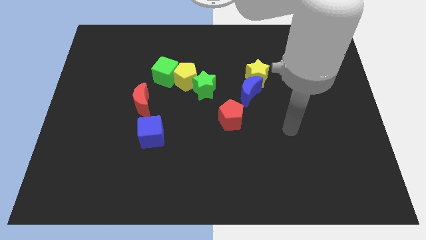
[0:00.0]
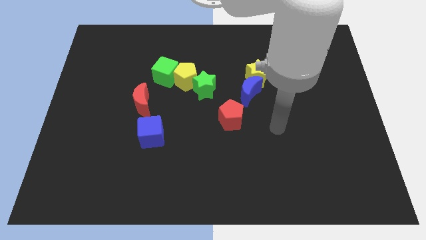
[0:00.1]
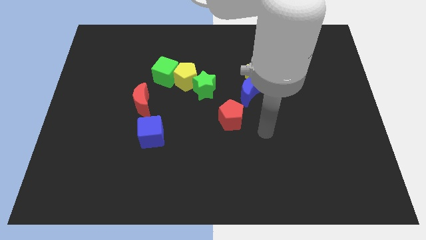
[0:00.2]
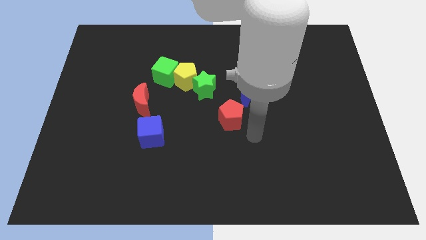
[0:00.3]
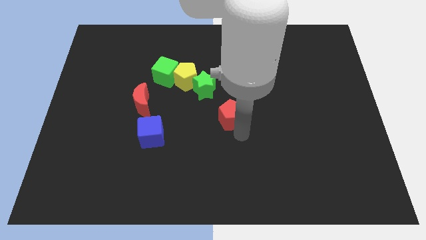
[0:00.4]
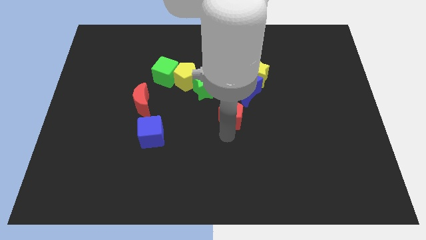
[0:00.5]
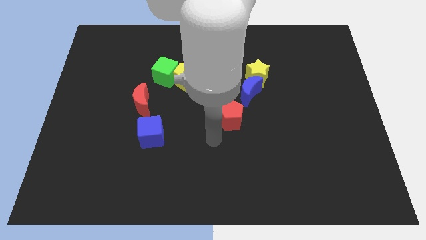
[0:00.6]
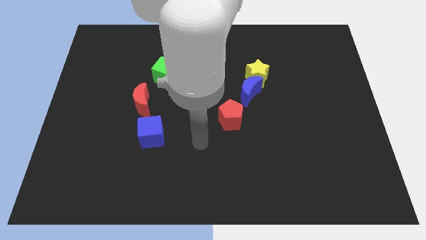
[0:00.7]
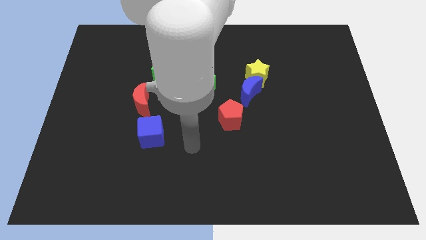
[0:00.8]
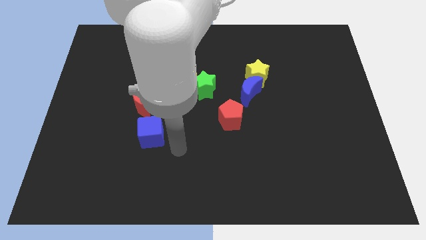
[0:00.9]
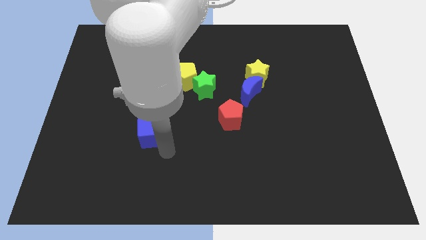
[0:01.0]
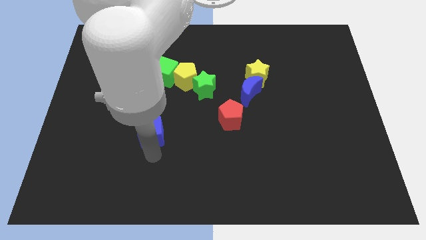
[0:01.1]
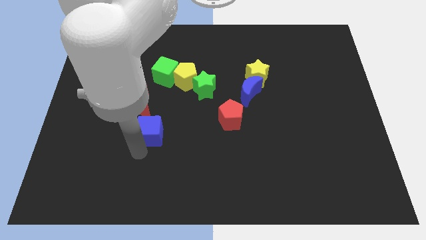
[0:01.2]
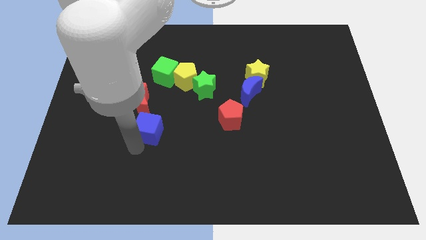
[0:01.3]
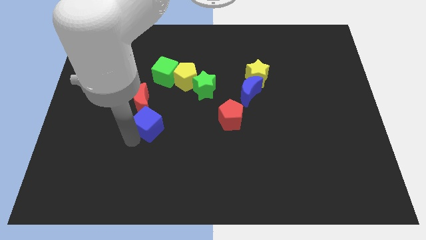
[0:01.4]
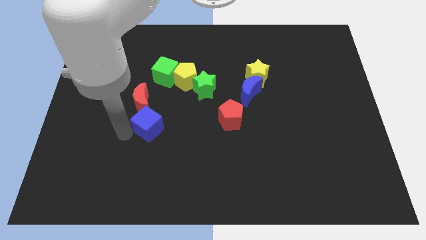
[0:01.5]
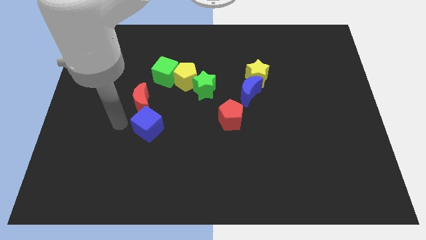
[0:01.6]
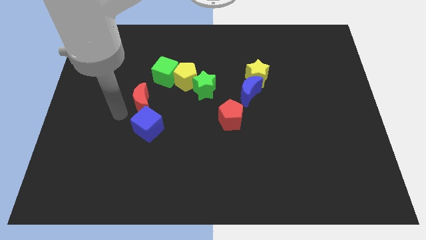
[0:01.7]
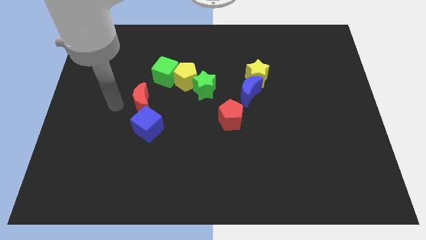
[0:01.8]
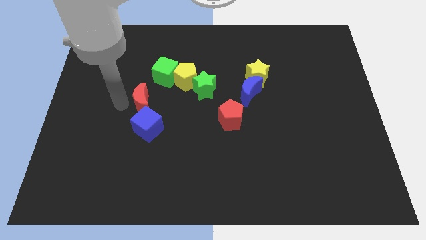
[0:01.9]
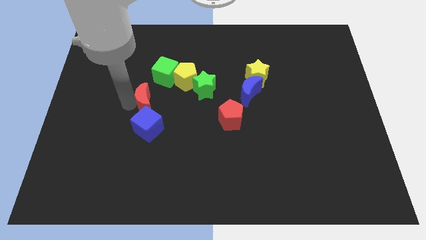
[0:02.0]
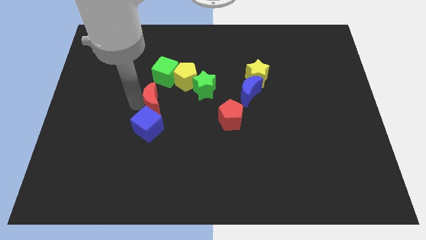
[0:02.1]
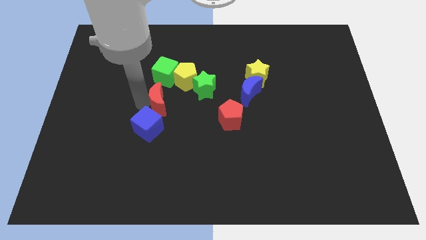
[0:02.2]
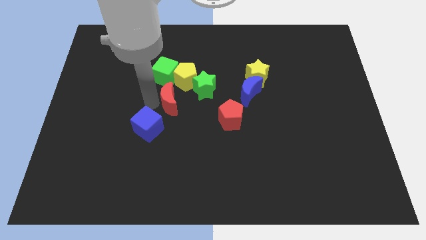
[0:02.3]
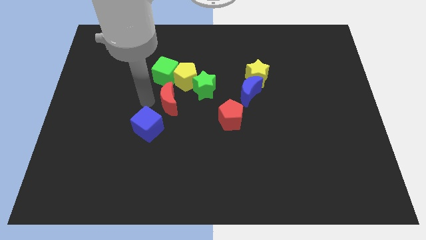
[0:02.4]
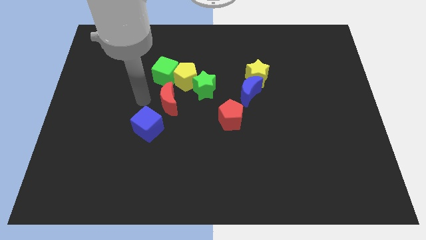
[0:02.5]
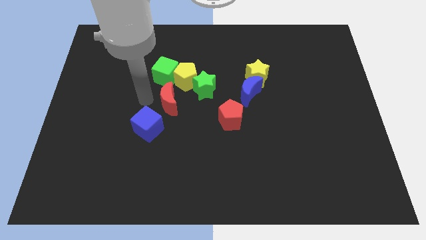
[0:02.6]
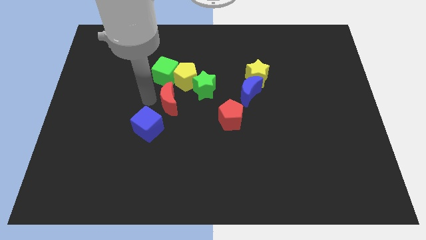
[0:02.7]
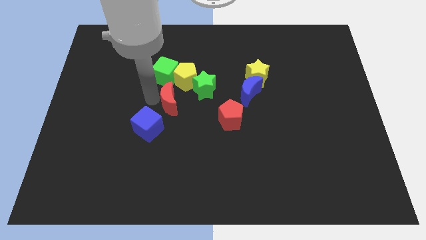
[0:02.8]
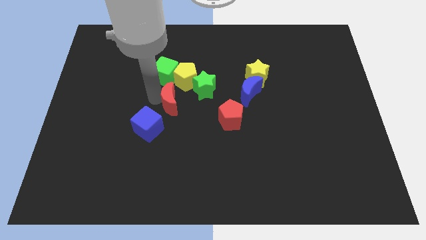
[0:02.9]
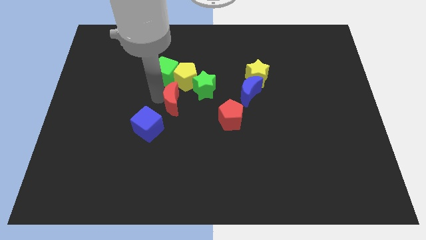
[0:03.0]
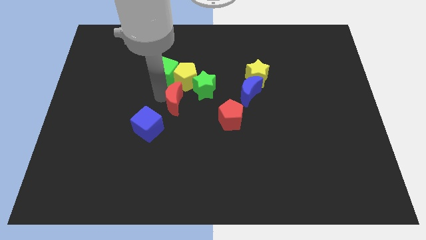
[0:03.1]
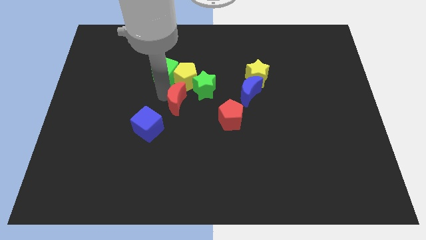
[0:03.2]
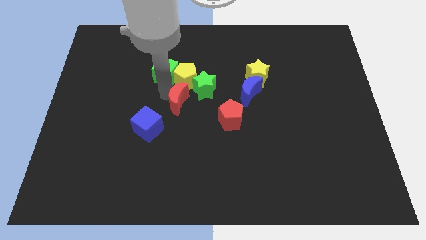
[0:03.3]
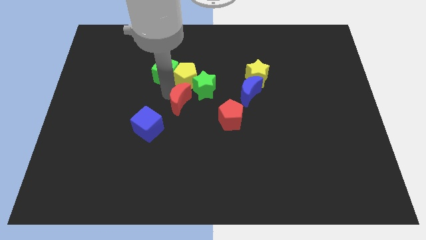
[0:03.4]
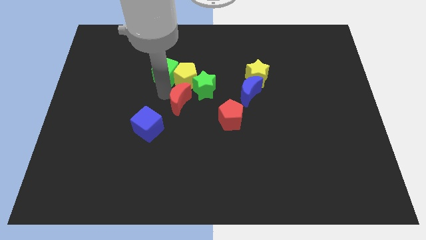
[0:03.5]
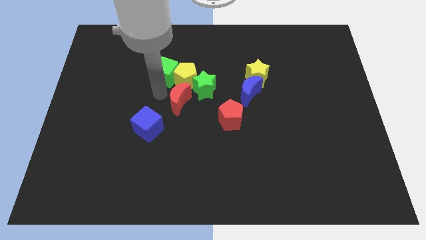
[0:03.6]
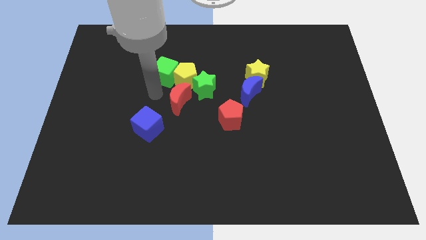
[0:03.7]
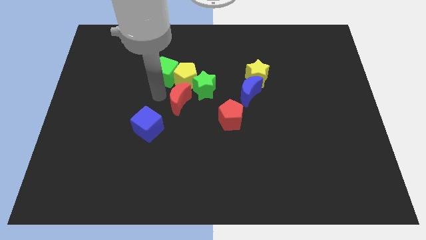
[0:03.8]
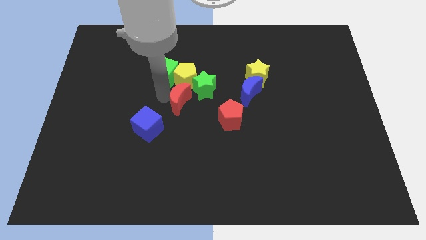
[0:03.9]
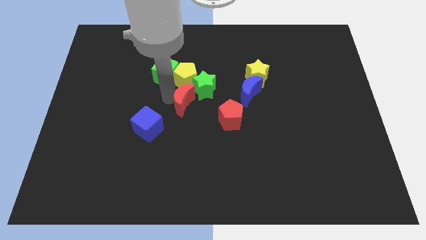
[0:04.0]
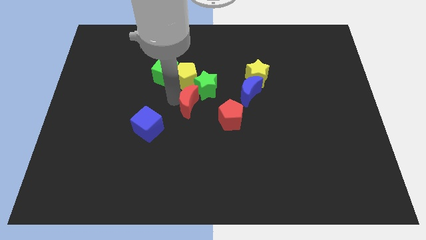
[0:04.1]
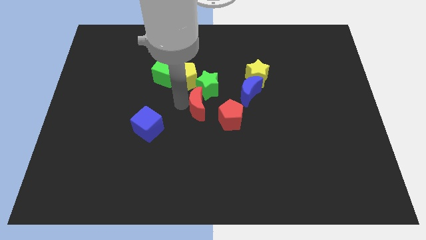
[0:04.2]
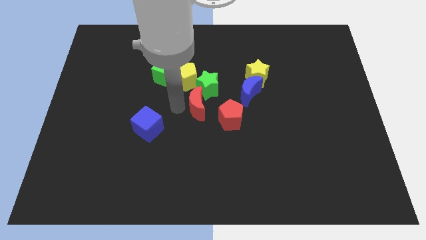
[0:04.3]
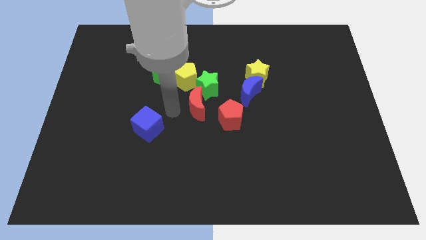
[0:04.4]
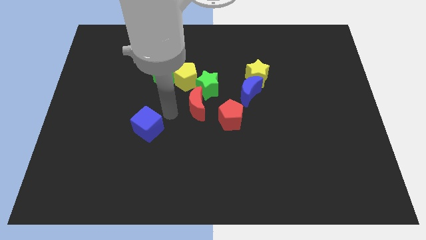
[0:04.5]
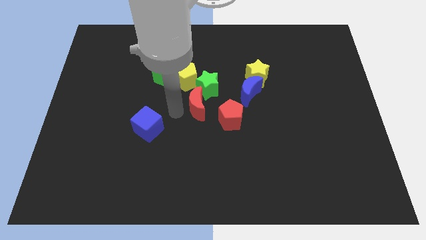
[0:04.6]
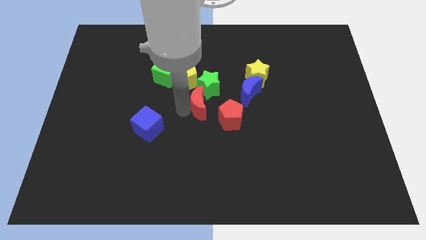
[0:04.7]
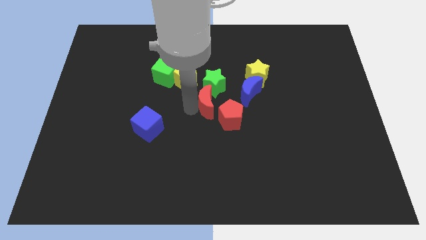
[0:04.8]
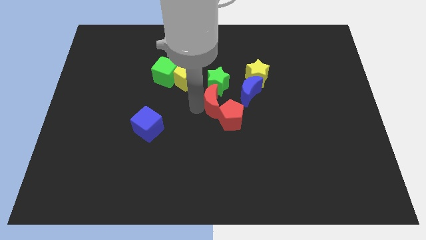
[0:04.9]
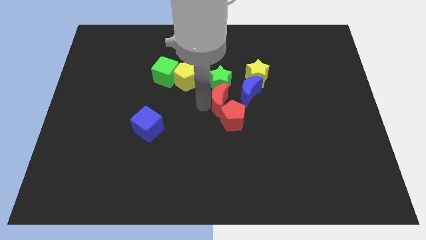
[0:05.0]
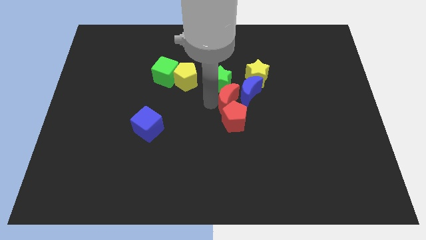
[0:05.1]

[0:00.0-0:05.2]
push the red moon right

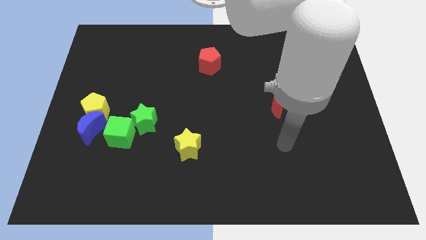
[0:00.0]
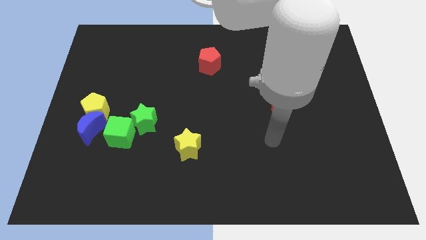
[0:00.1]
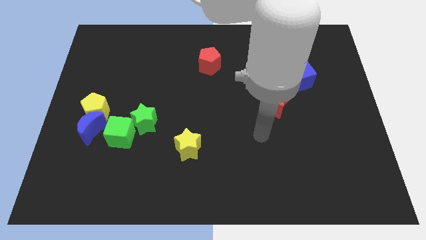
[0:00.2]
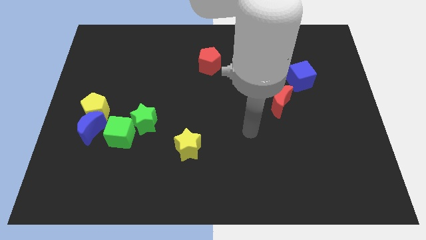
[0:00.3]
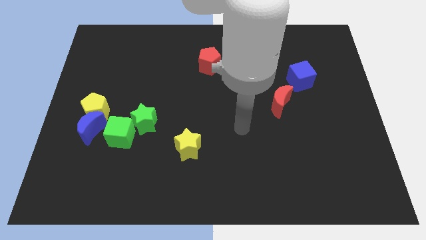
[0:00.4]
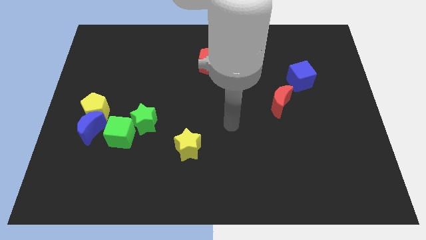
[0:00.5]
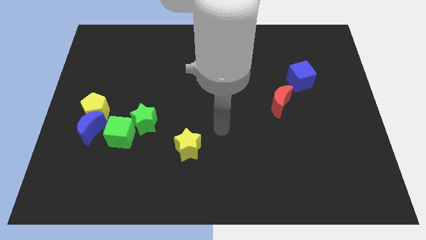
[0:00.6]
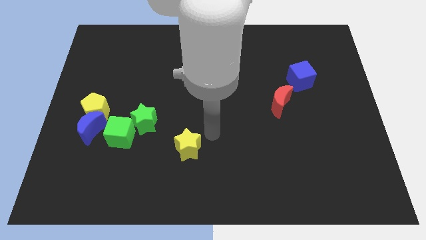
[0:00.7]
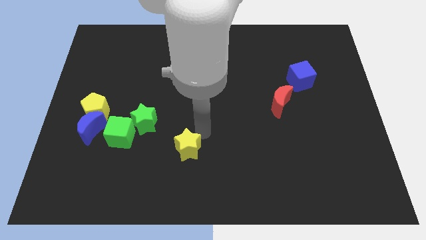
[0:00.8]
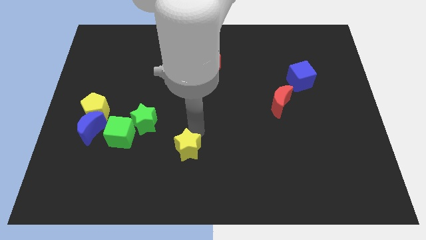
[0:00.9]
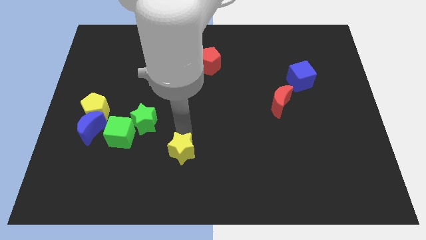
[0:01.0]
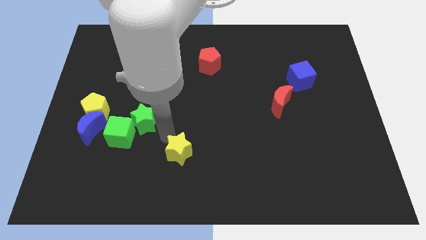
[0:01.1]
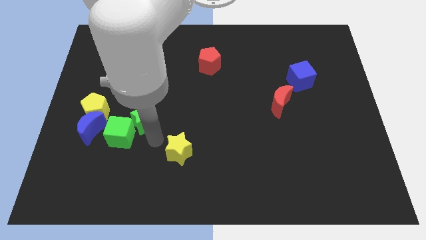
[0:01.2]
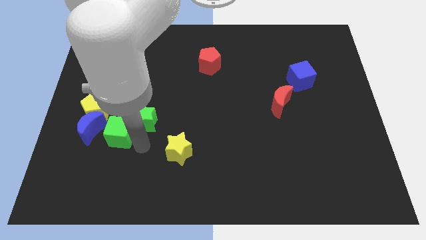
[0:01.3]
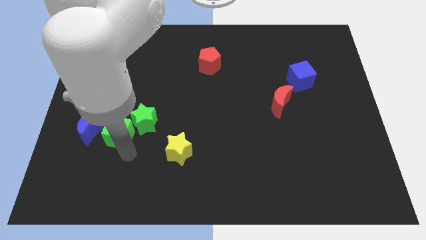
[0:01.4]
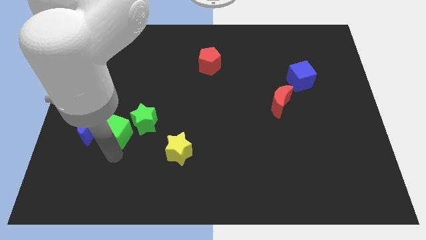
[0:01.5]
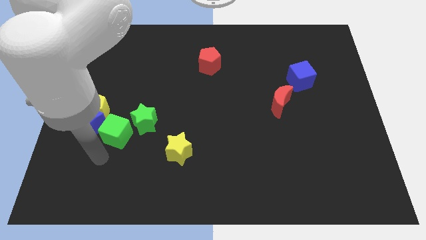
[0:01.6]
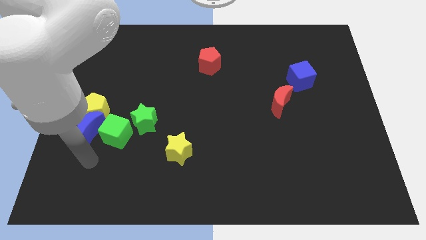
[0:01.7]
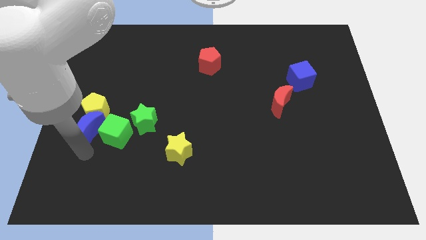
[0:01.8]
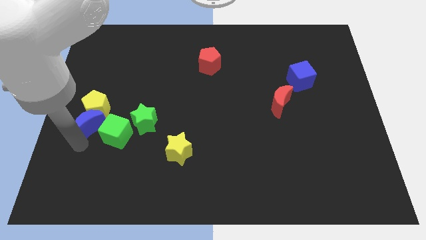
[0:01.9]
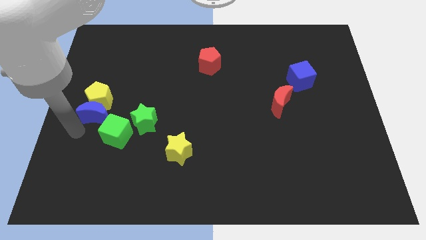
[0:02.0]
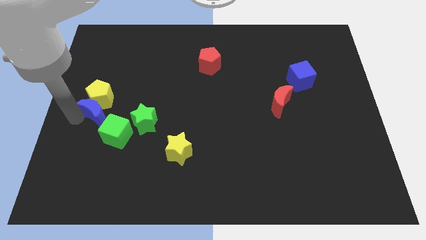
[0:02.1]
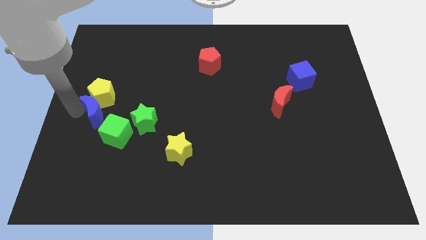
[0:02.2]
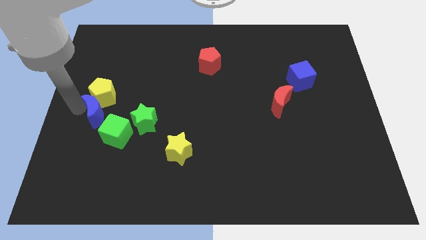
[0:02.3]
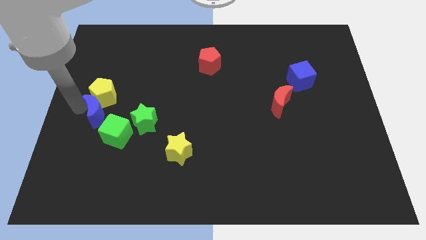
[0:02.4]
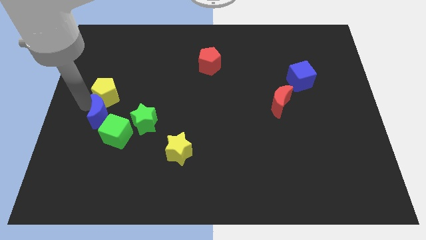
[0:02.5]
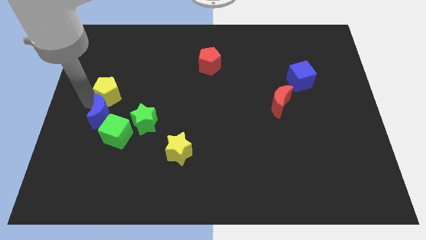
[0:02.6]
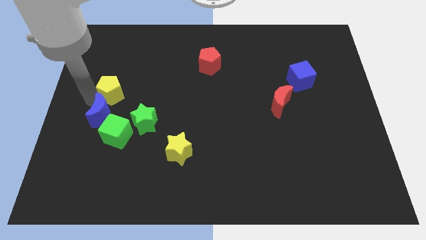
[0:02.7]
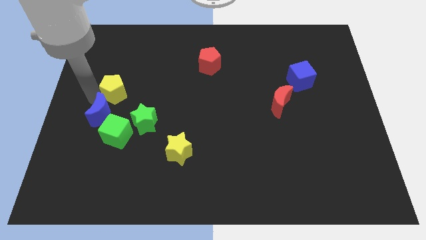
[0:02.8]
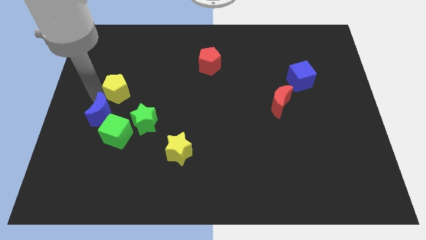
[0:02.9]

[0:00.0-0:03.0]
push the yellow pentagon upwards and to the right a little
